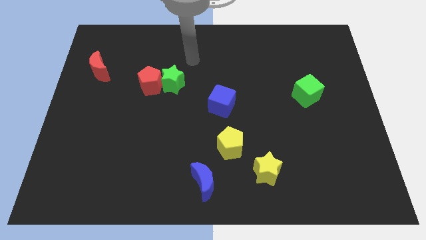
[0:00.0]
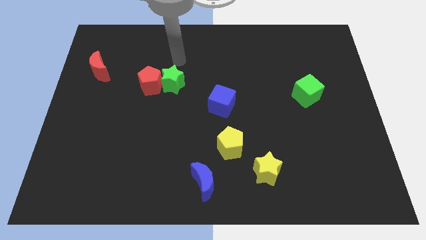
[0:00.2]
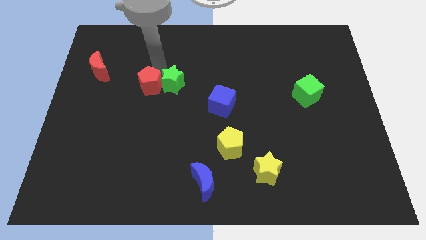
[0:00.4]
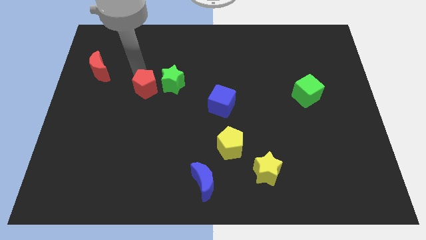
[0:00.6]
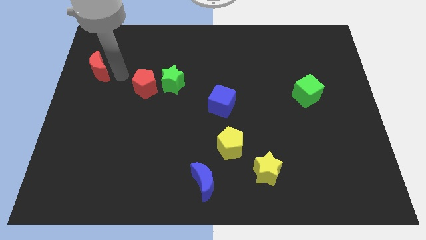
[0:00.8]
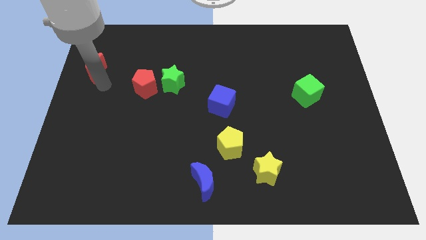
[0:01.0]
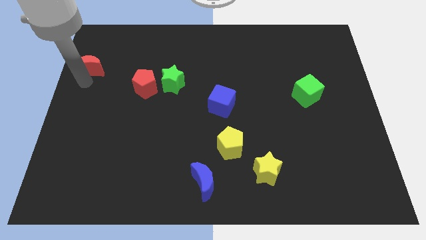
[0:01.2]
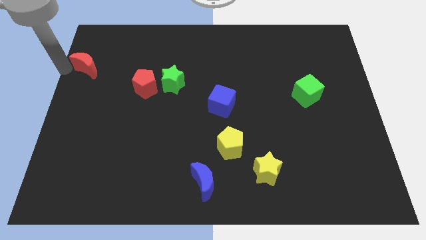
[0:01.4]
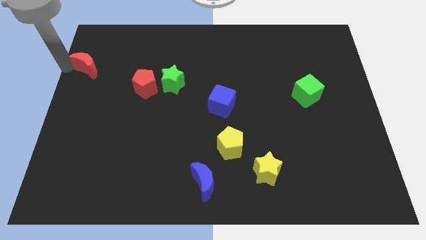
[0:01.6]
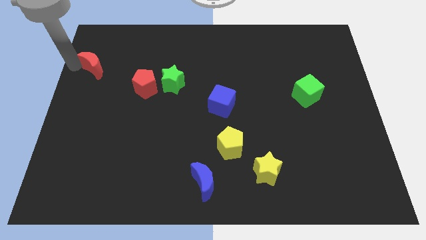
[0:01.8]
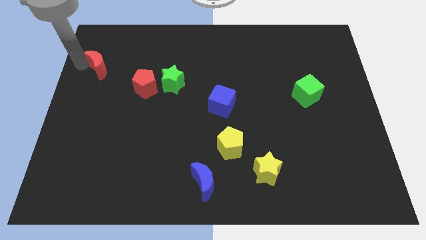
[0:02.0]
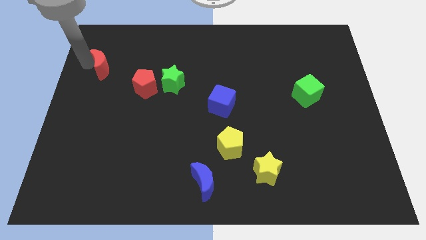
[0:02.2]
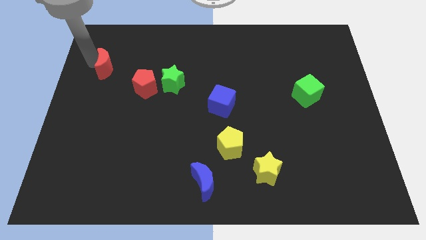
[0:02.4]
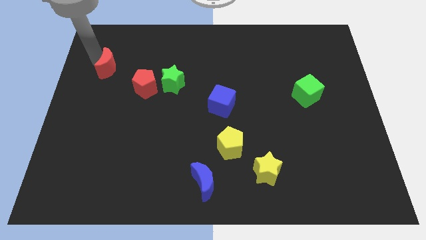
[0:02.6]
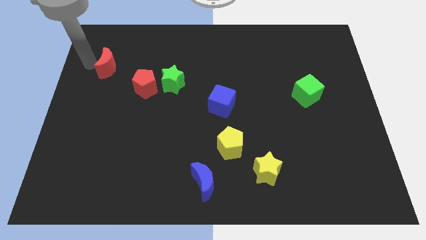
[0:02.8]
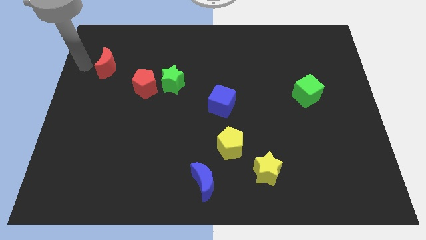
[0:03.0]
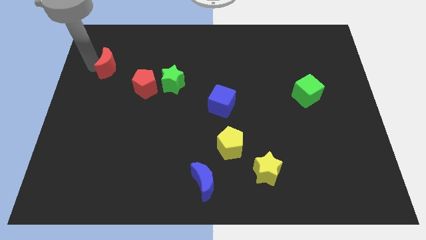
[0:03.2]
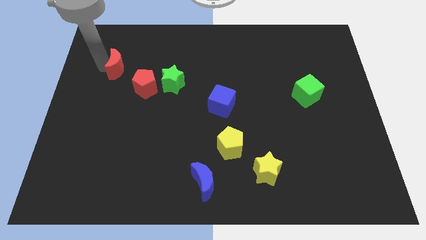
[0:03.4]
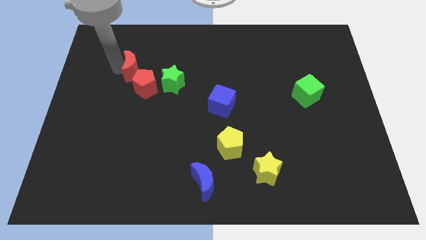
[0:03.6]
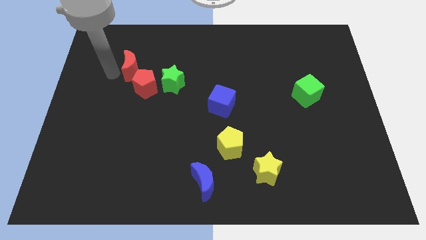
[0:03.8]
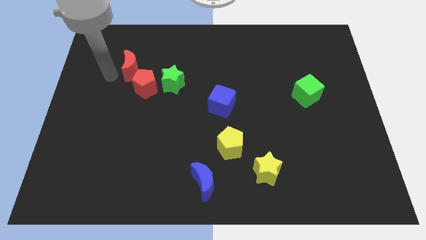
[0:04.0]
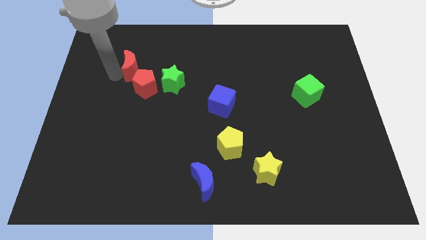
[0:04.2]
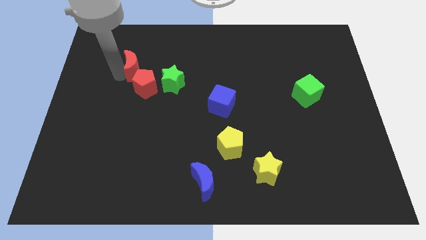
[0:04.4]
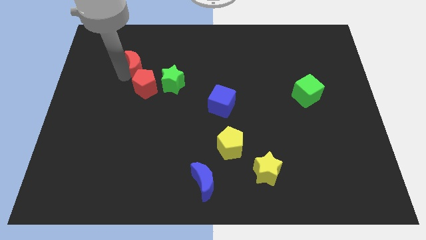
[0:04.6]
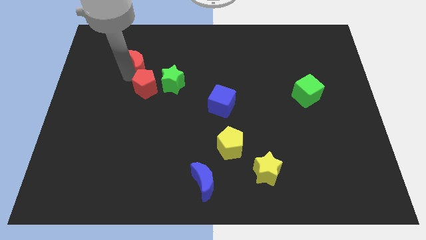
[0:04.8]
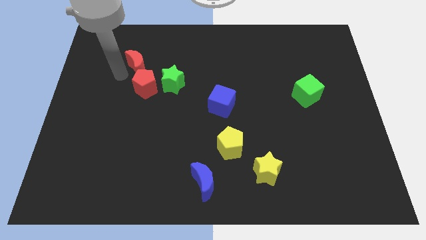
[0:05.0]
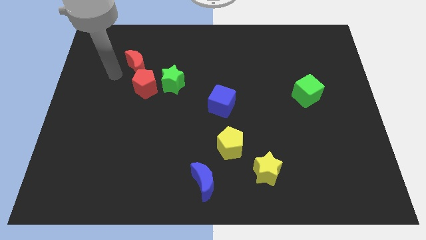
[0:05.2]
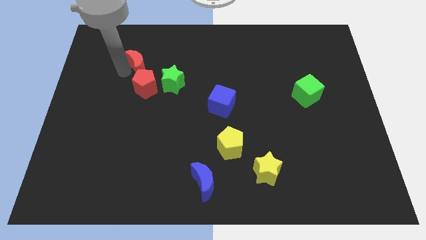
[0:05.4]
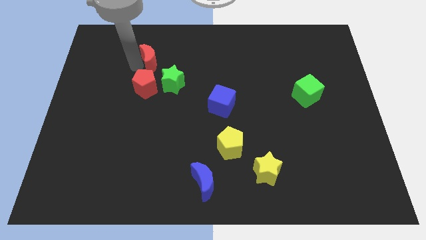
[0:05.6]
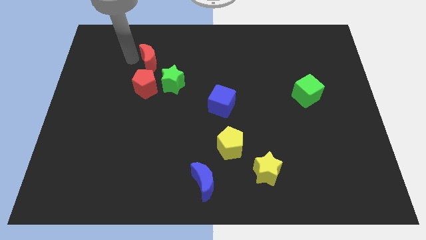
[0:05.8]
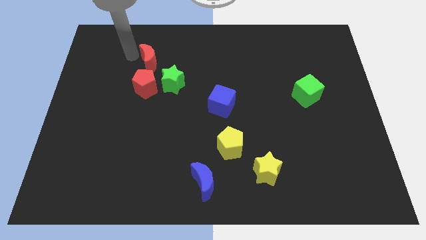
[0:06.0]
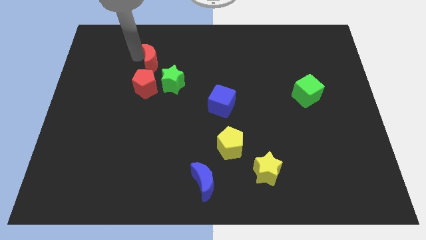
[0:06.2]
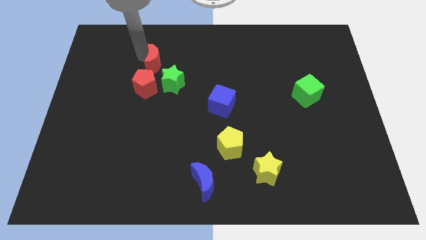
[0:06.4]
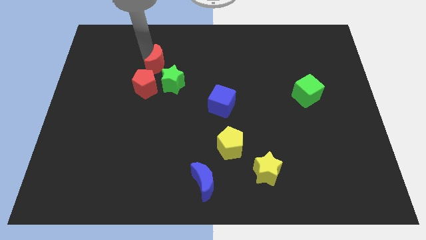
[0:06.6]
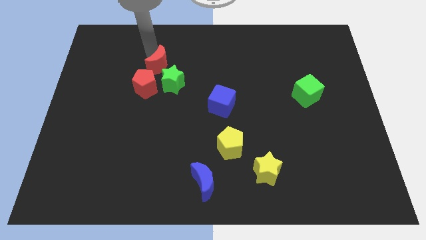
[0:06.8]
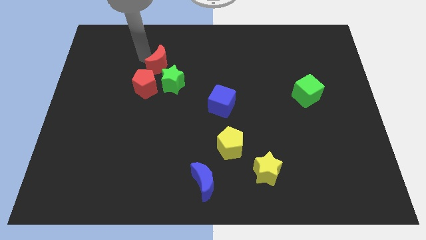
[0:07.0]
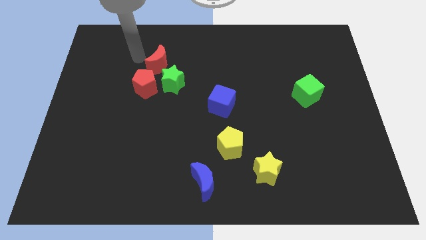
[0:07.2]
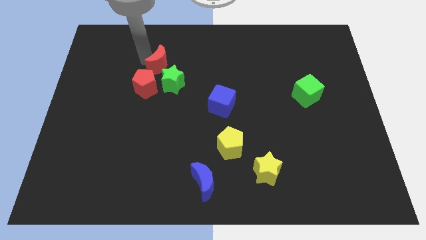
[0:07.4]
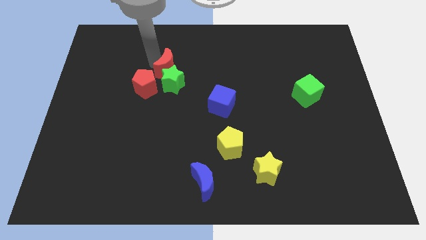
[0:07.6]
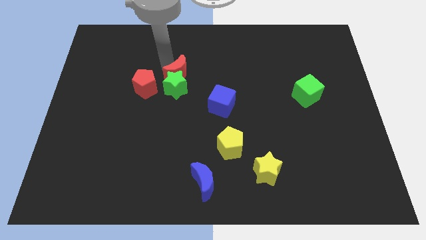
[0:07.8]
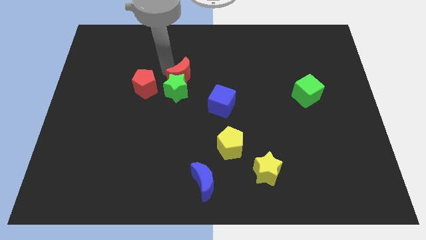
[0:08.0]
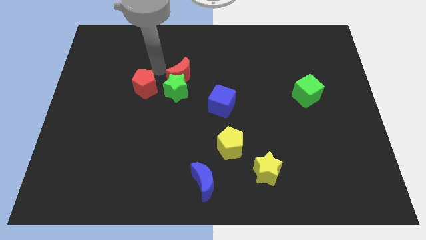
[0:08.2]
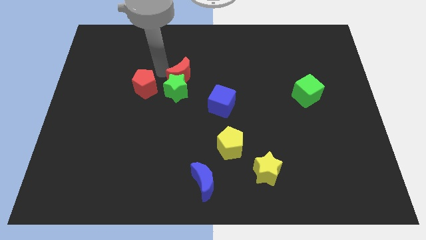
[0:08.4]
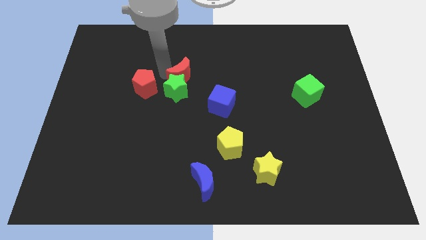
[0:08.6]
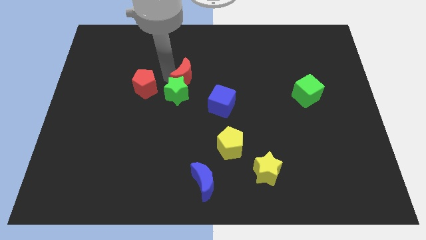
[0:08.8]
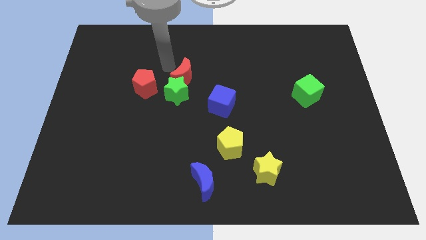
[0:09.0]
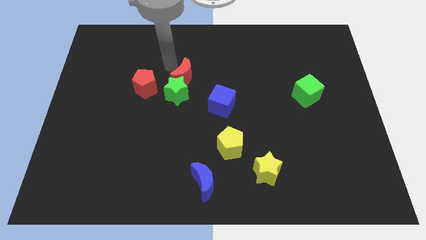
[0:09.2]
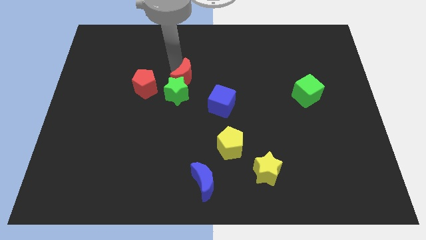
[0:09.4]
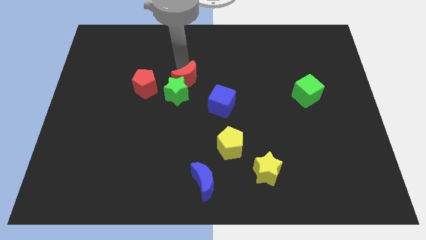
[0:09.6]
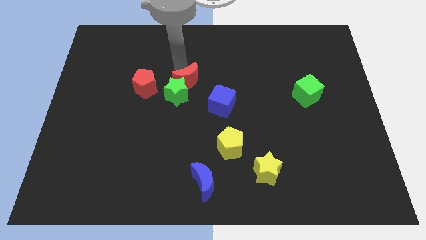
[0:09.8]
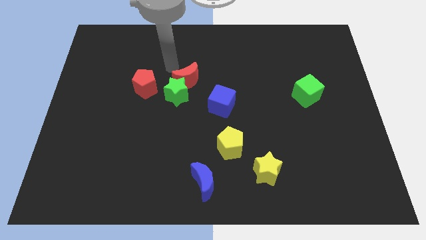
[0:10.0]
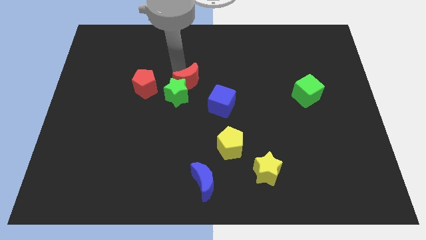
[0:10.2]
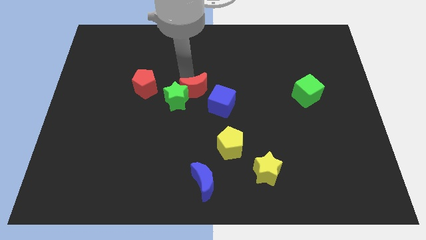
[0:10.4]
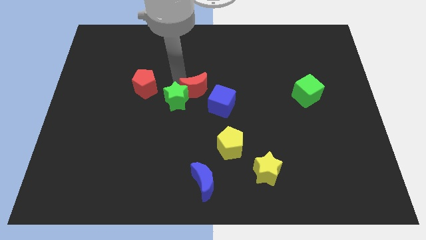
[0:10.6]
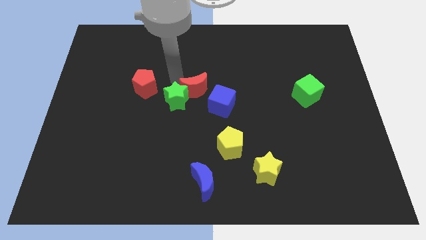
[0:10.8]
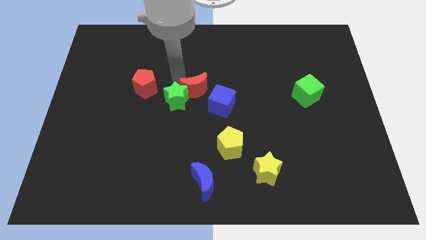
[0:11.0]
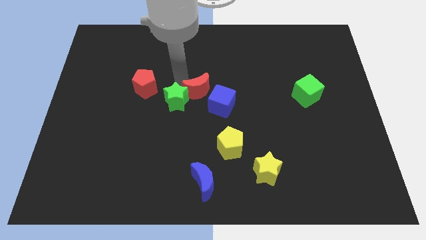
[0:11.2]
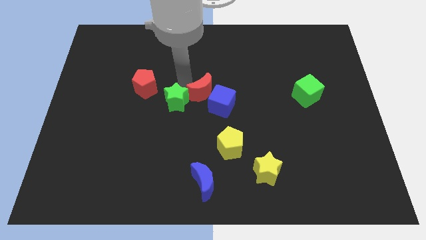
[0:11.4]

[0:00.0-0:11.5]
push the red moon to the blue cube

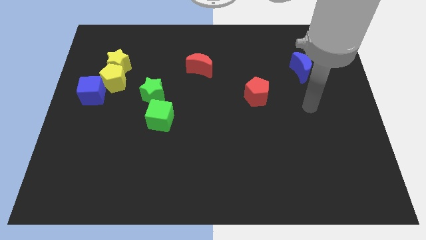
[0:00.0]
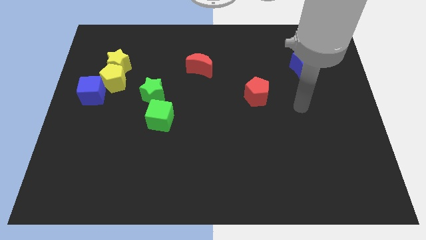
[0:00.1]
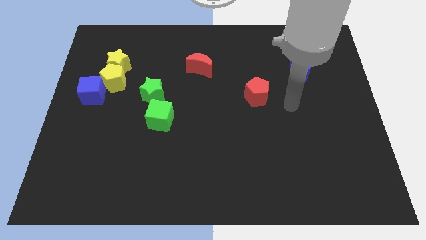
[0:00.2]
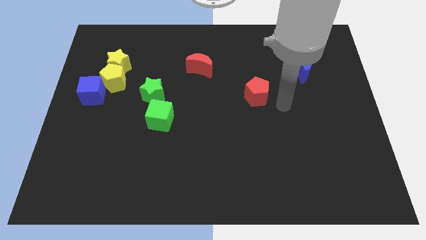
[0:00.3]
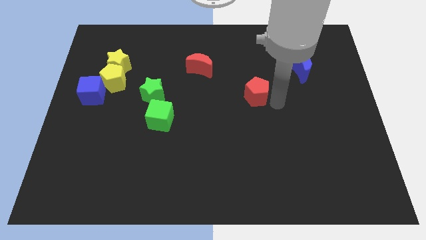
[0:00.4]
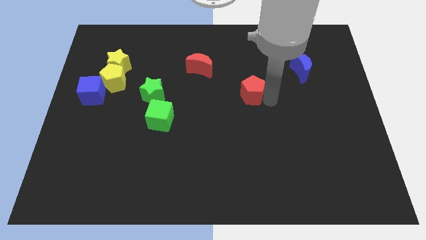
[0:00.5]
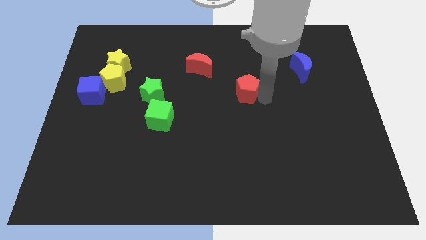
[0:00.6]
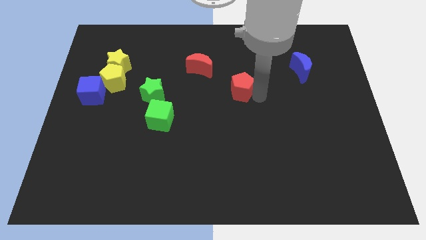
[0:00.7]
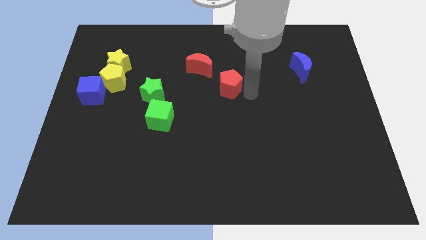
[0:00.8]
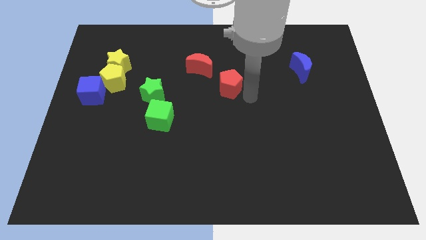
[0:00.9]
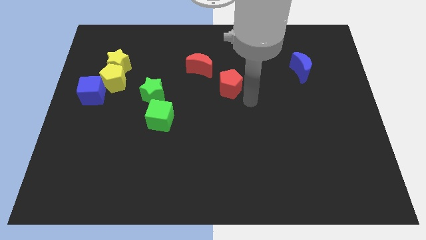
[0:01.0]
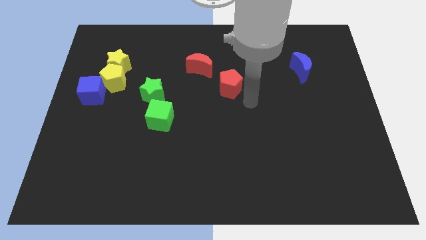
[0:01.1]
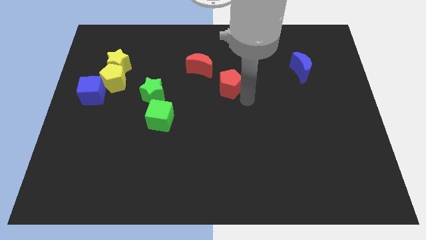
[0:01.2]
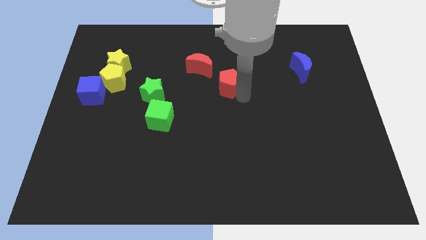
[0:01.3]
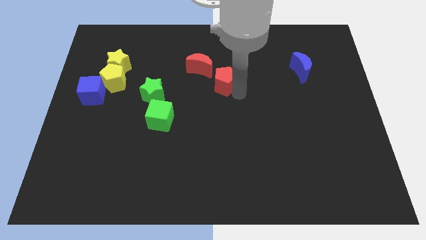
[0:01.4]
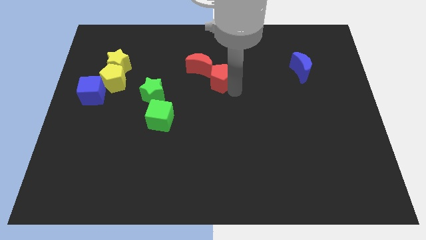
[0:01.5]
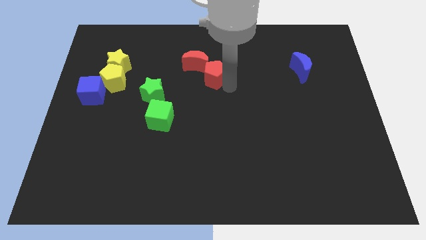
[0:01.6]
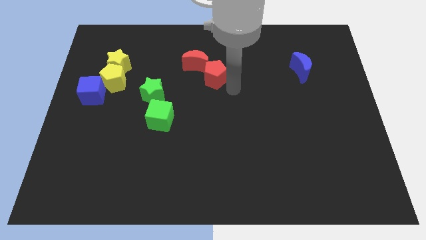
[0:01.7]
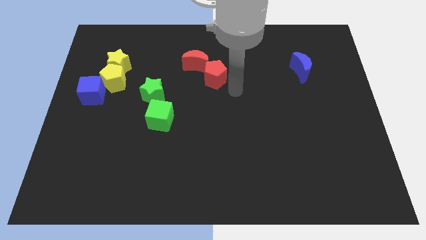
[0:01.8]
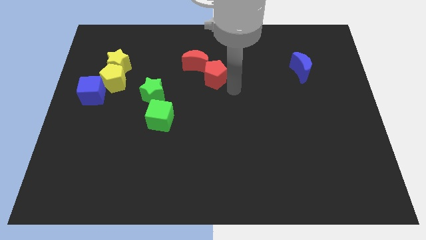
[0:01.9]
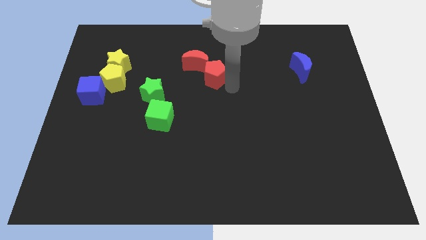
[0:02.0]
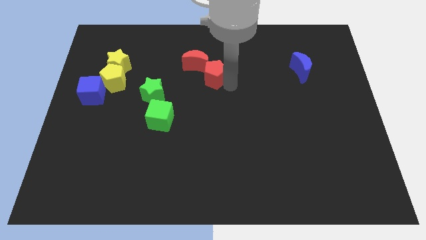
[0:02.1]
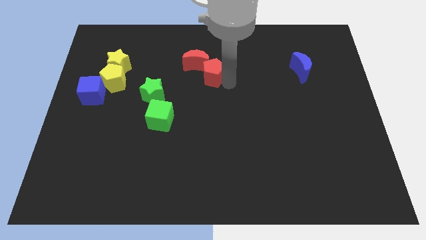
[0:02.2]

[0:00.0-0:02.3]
put the red pentagon close to the red moon
